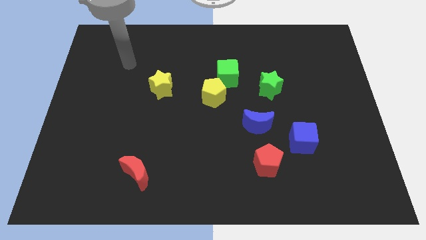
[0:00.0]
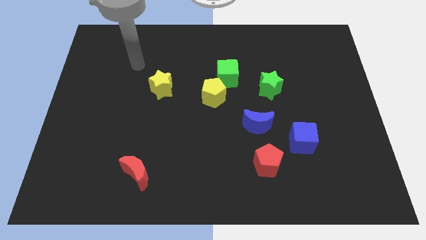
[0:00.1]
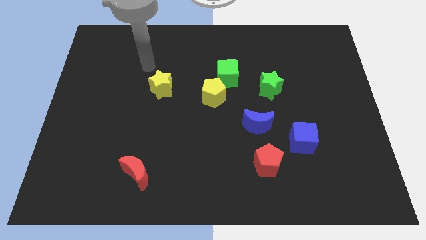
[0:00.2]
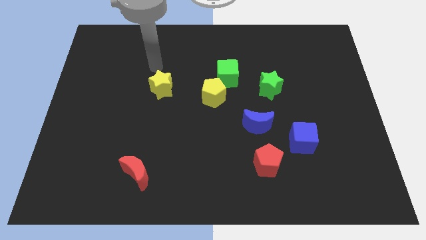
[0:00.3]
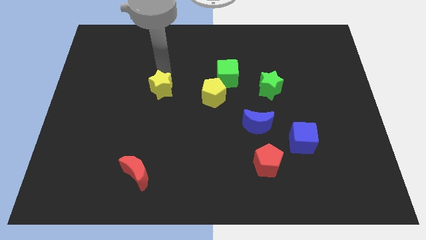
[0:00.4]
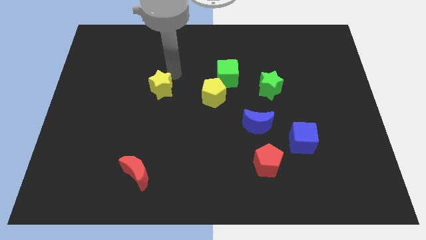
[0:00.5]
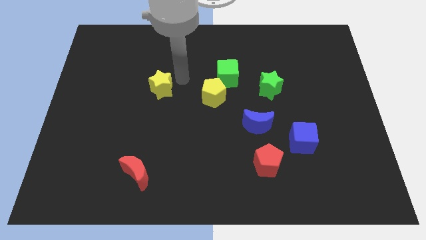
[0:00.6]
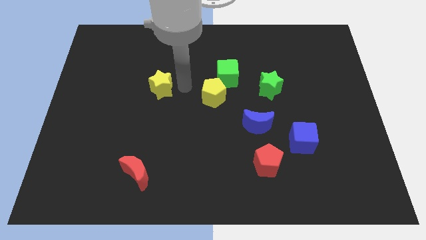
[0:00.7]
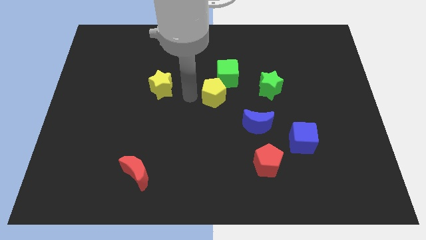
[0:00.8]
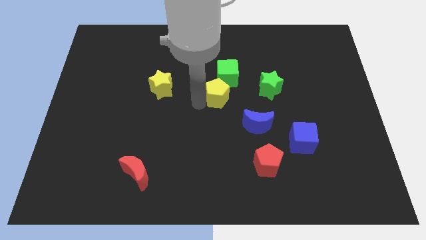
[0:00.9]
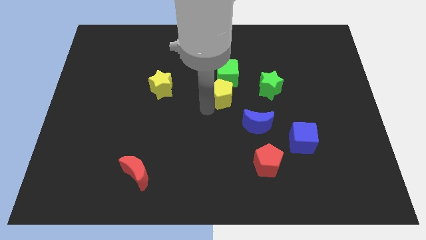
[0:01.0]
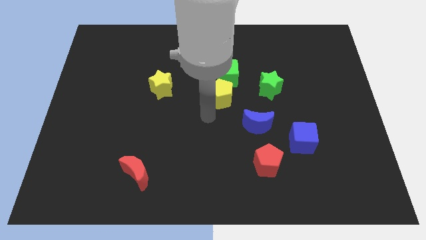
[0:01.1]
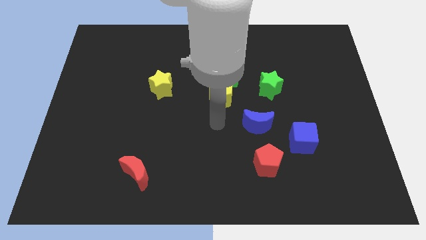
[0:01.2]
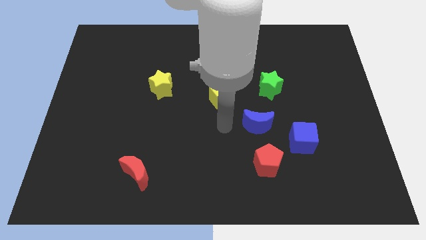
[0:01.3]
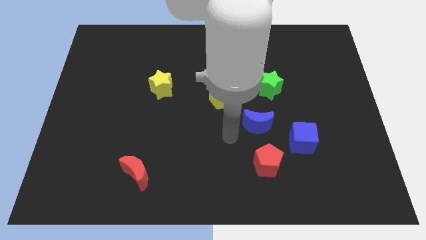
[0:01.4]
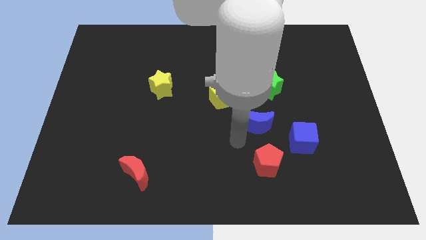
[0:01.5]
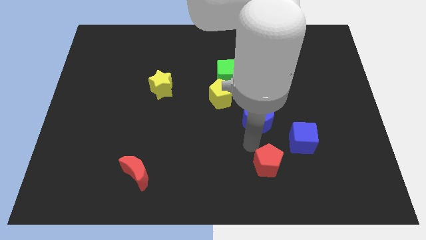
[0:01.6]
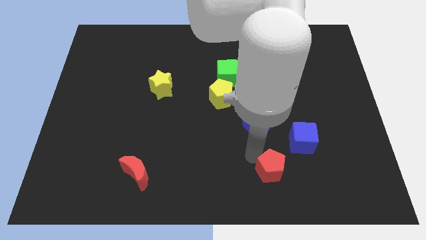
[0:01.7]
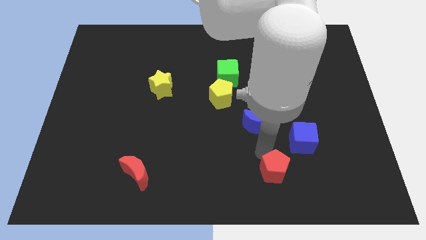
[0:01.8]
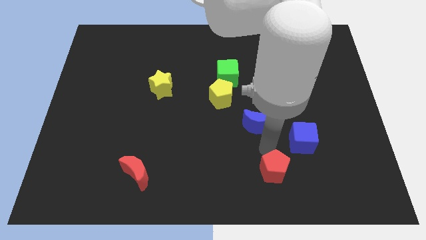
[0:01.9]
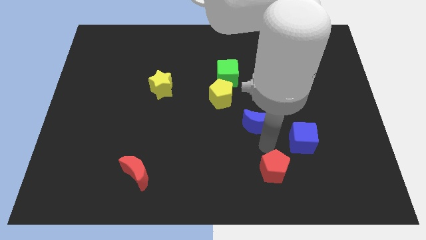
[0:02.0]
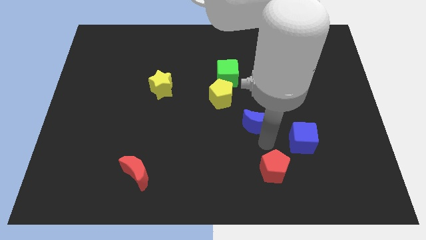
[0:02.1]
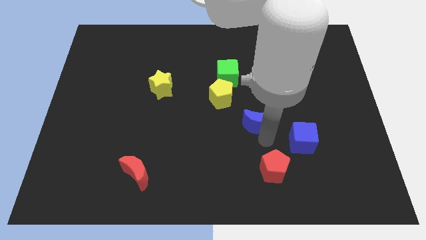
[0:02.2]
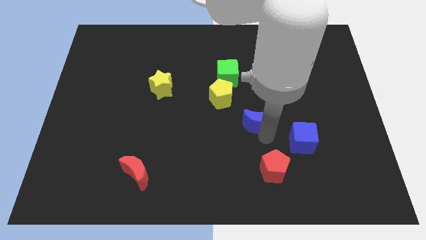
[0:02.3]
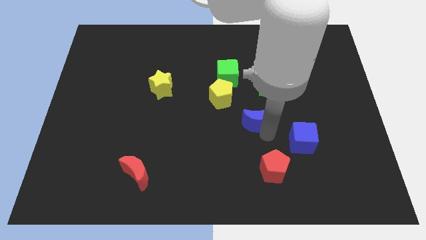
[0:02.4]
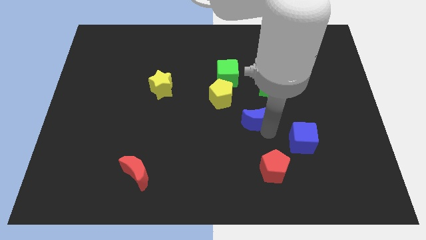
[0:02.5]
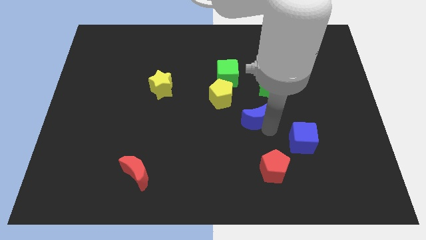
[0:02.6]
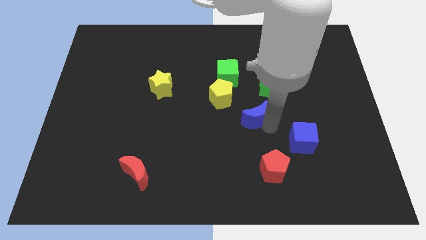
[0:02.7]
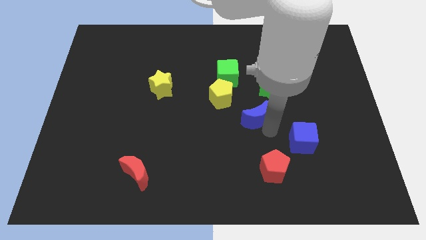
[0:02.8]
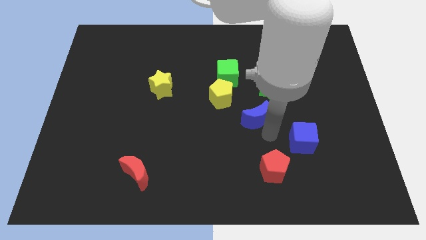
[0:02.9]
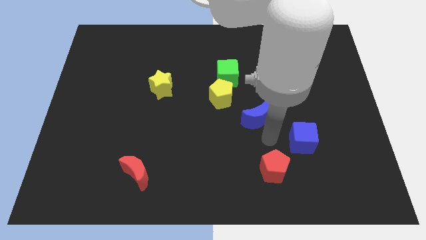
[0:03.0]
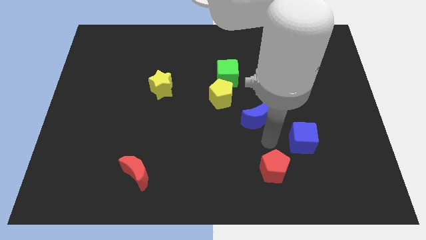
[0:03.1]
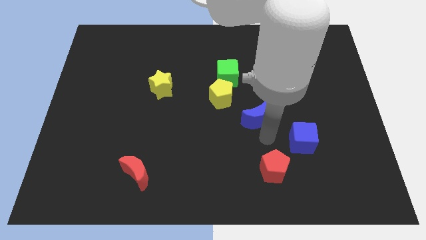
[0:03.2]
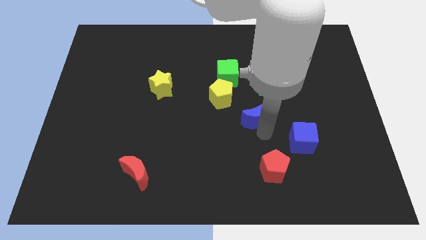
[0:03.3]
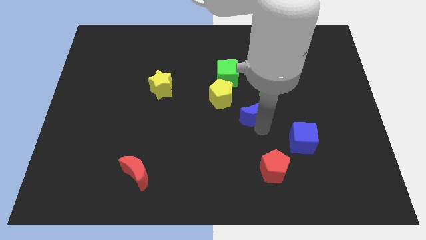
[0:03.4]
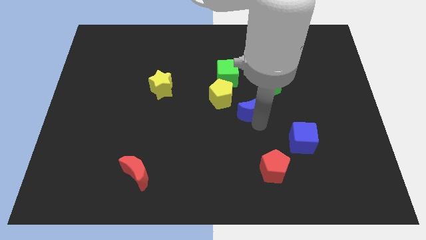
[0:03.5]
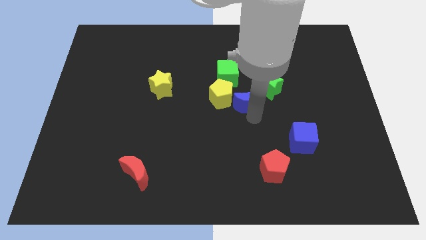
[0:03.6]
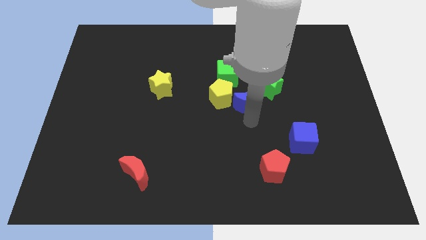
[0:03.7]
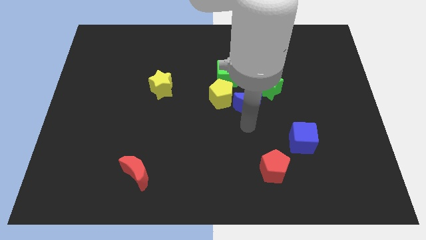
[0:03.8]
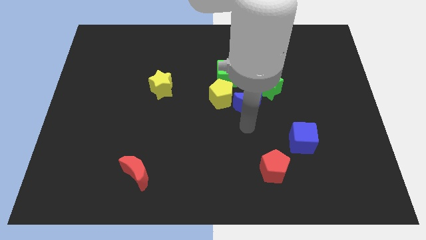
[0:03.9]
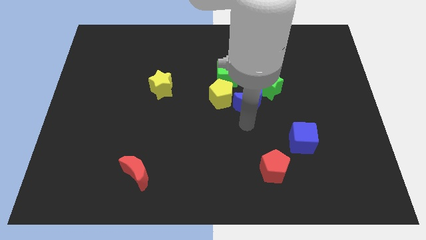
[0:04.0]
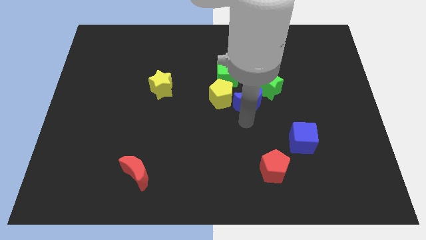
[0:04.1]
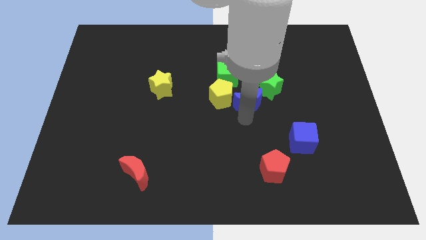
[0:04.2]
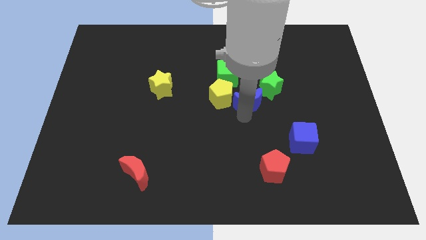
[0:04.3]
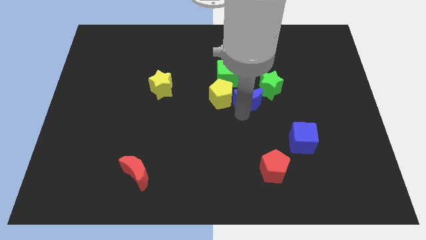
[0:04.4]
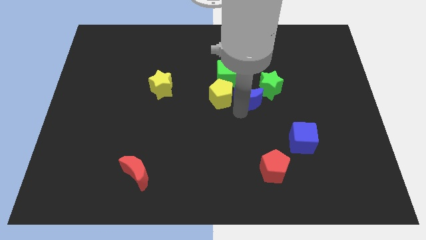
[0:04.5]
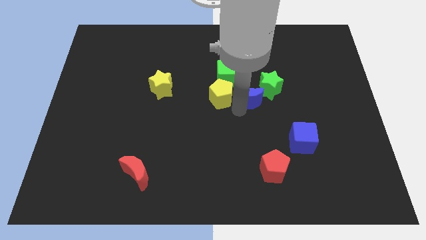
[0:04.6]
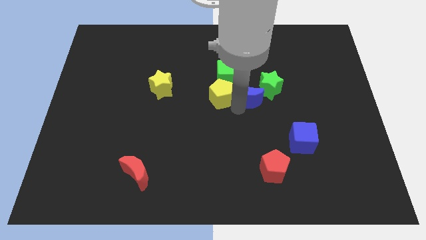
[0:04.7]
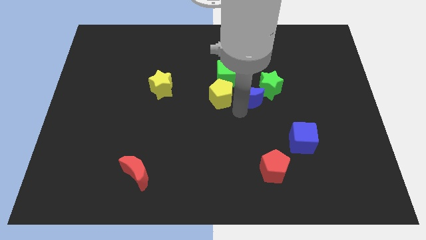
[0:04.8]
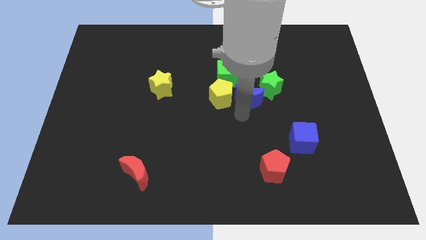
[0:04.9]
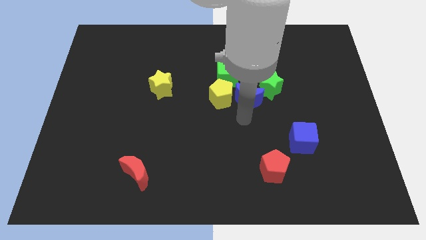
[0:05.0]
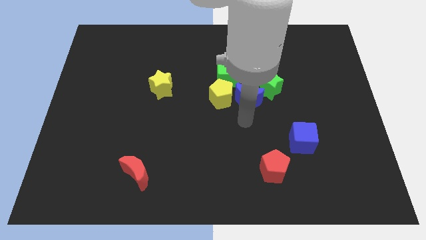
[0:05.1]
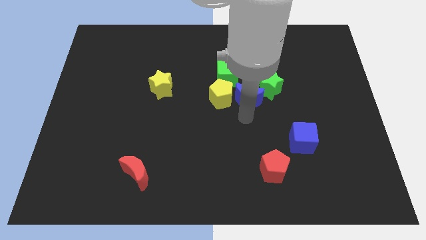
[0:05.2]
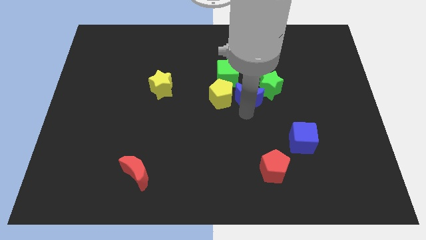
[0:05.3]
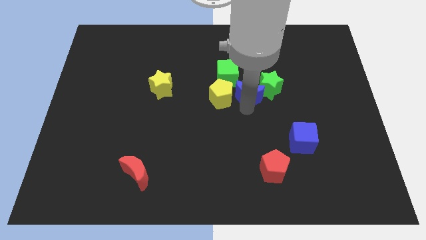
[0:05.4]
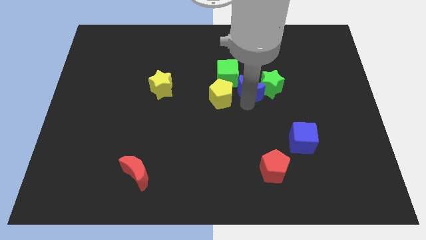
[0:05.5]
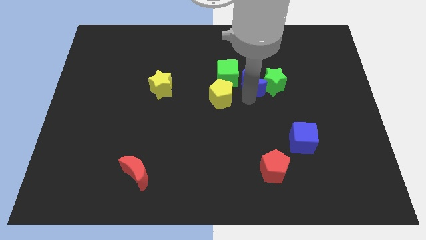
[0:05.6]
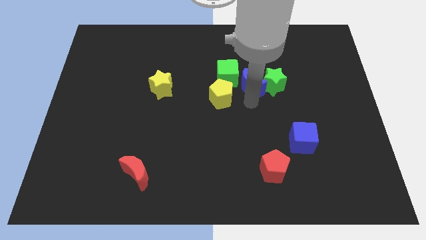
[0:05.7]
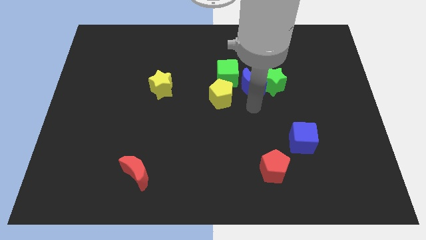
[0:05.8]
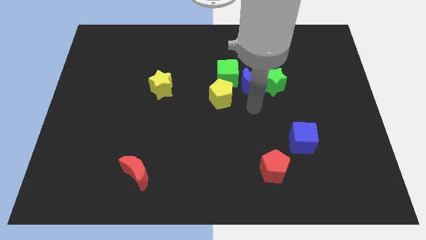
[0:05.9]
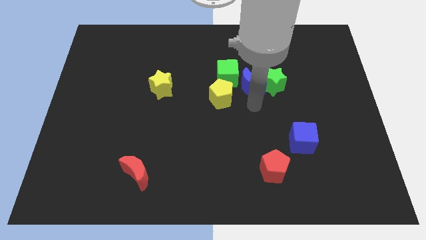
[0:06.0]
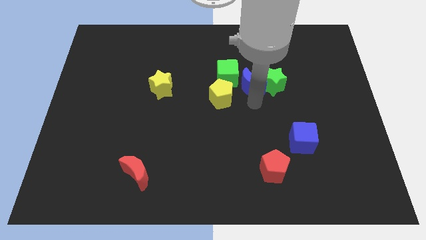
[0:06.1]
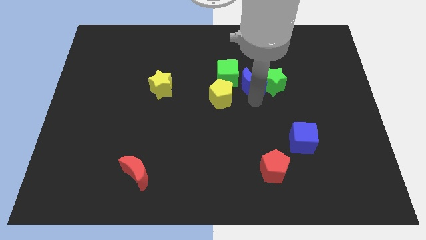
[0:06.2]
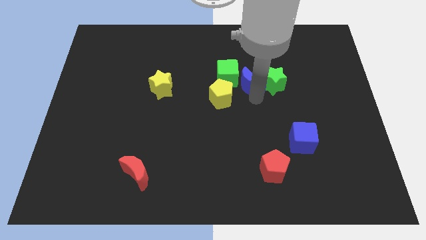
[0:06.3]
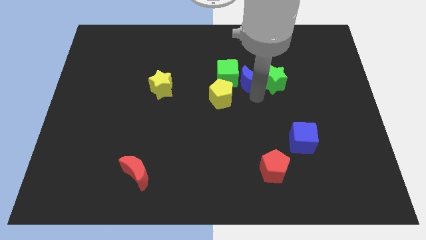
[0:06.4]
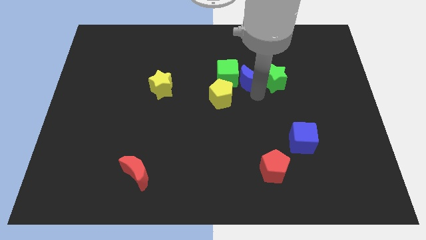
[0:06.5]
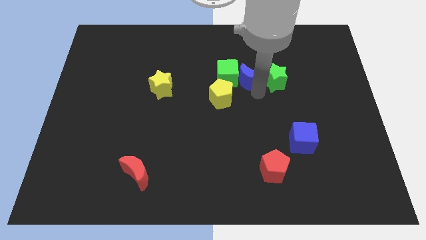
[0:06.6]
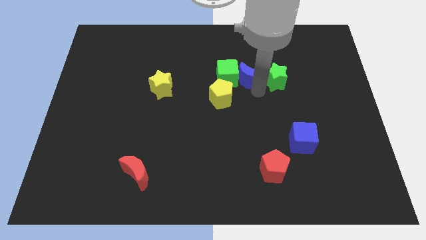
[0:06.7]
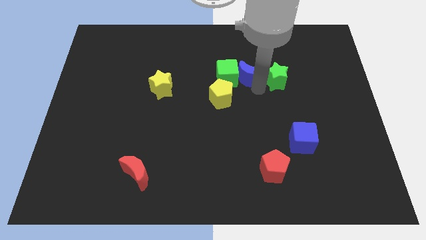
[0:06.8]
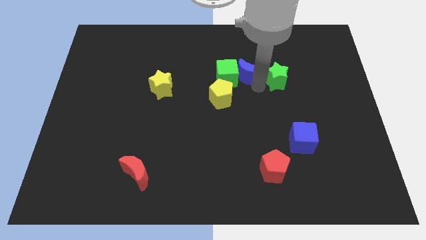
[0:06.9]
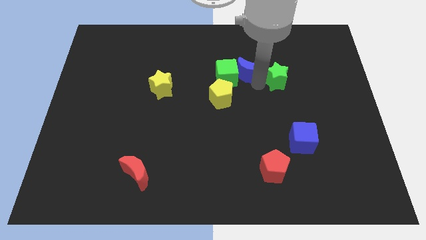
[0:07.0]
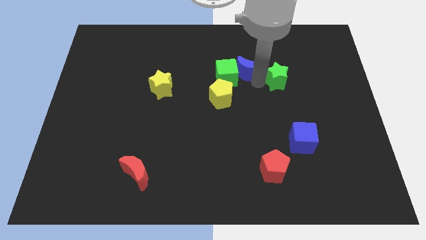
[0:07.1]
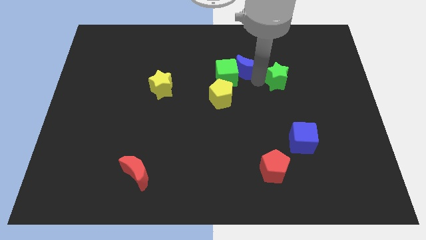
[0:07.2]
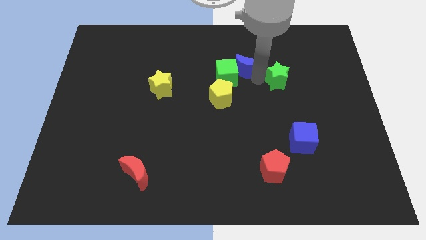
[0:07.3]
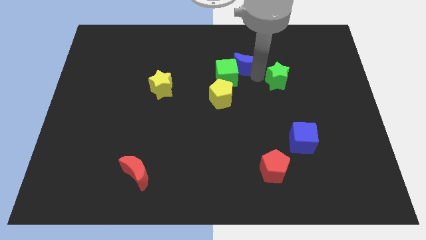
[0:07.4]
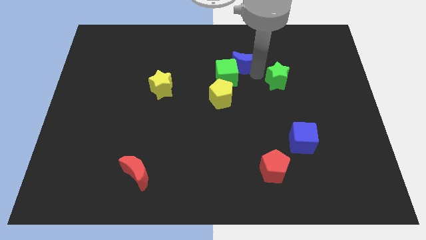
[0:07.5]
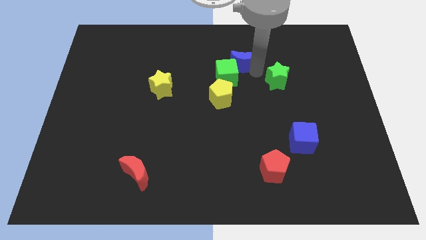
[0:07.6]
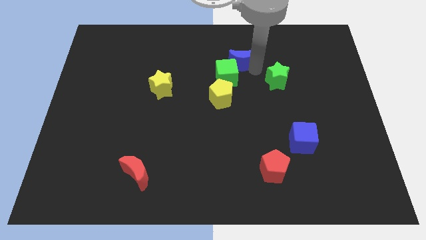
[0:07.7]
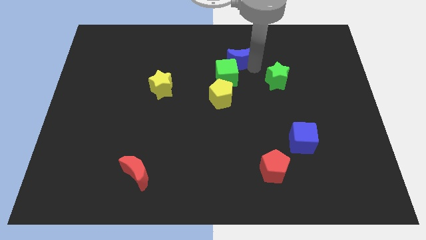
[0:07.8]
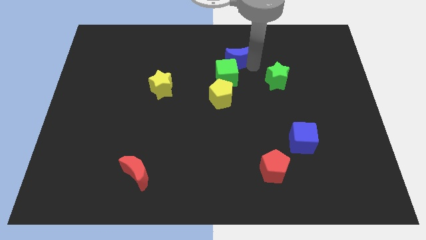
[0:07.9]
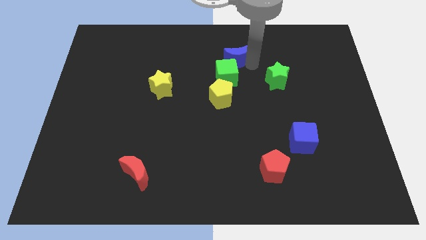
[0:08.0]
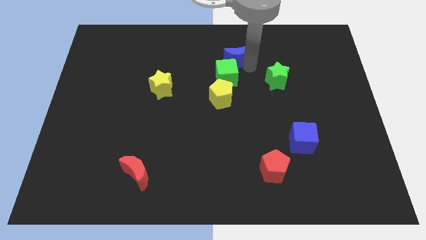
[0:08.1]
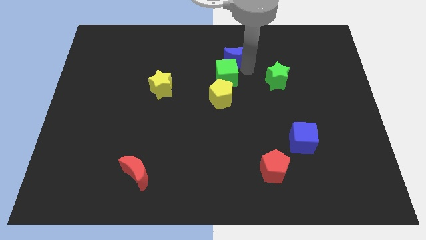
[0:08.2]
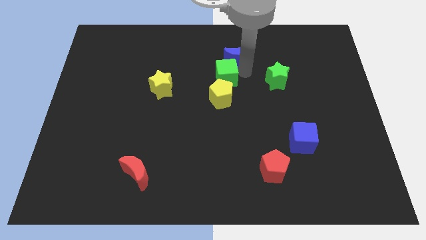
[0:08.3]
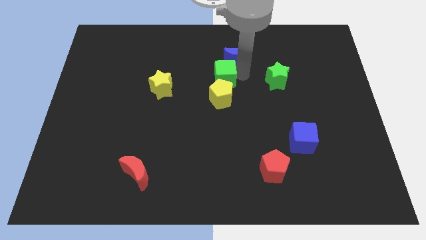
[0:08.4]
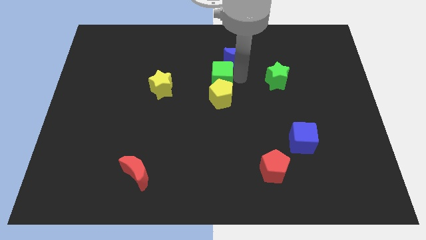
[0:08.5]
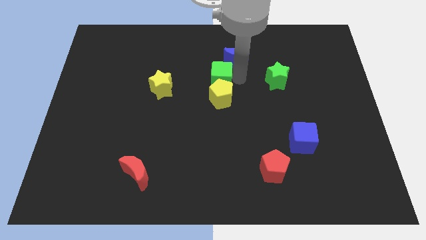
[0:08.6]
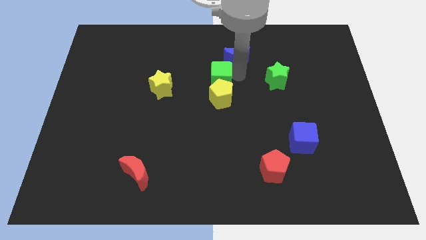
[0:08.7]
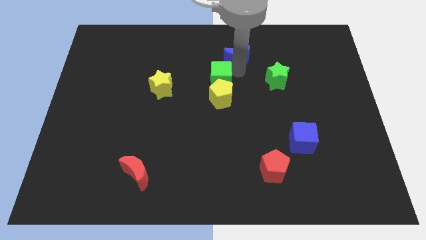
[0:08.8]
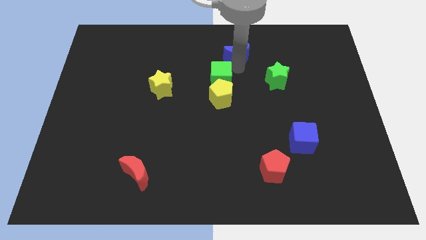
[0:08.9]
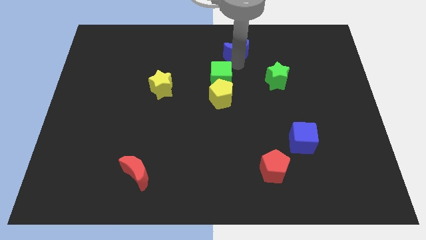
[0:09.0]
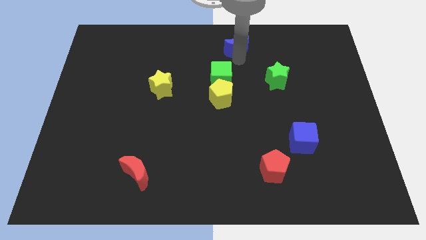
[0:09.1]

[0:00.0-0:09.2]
move the blue moon to the top
